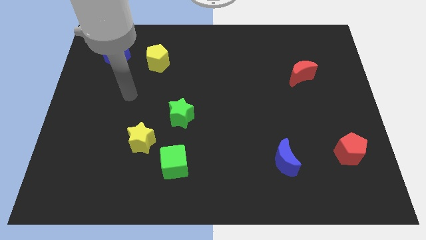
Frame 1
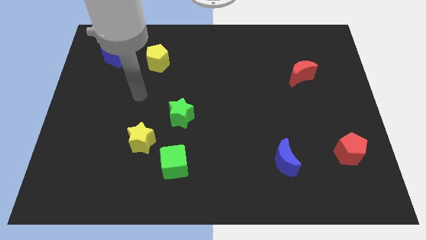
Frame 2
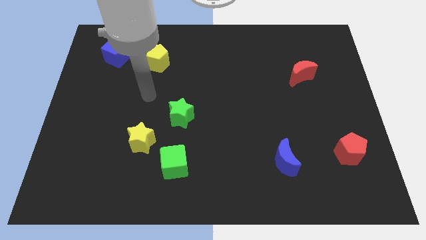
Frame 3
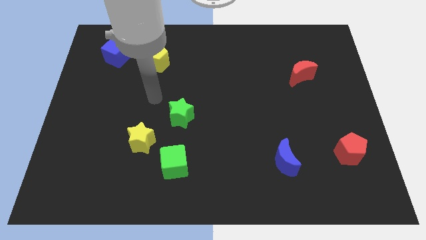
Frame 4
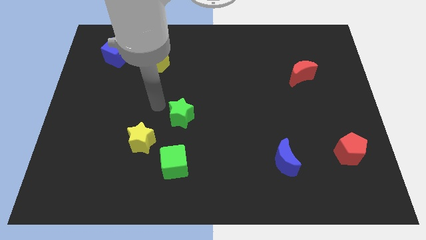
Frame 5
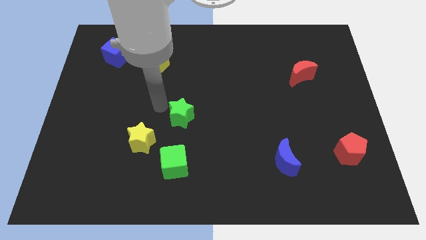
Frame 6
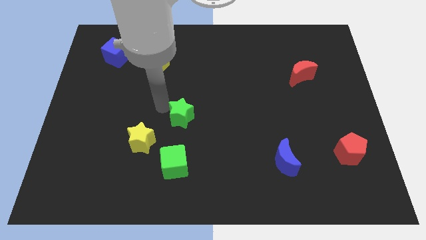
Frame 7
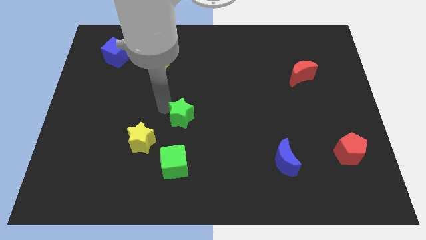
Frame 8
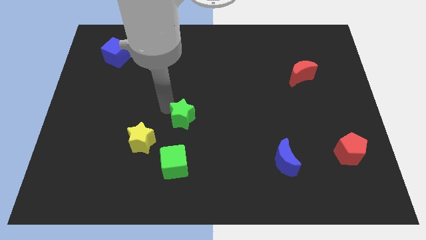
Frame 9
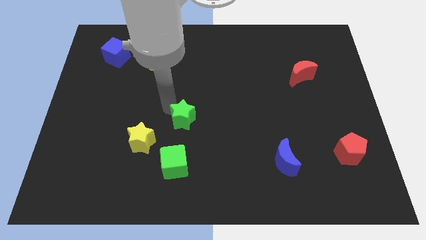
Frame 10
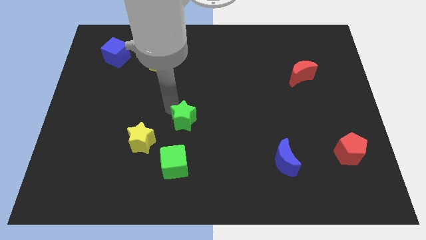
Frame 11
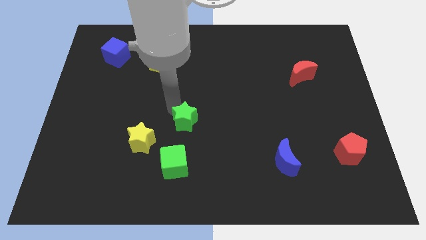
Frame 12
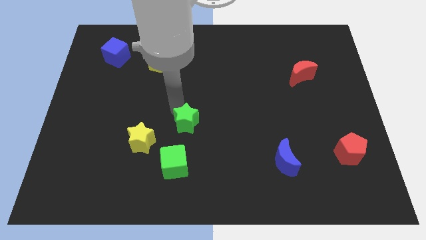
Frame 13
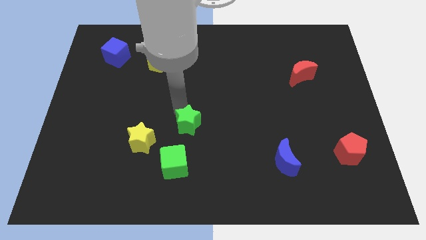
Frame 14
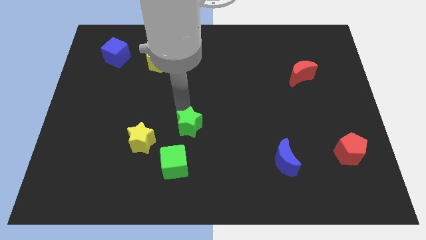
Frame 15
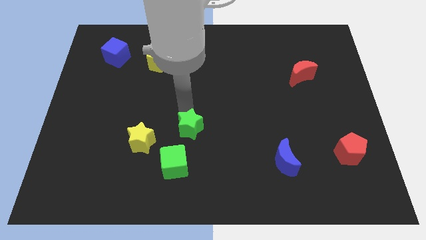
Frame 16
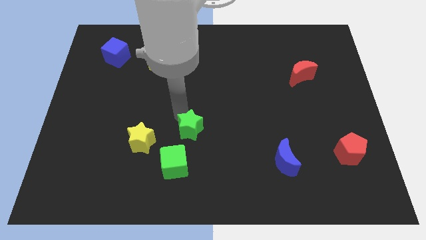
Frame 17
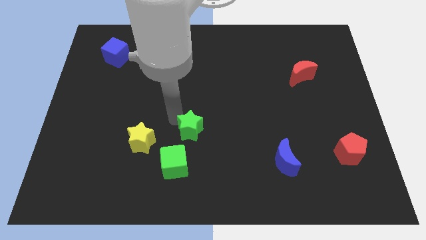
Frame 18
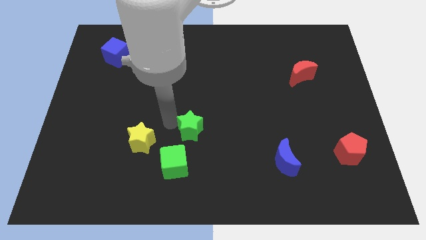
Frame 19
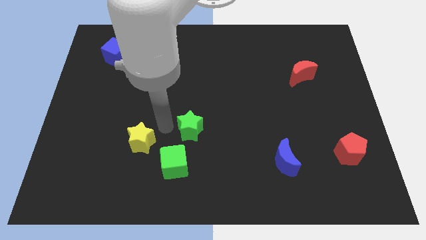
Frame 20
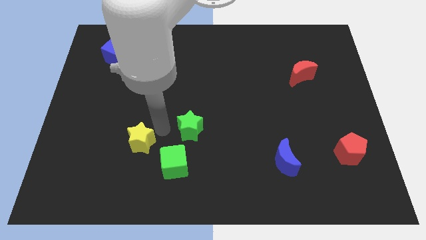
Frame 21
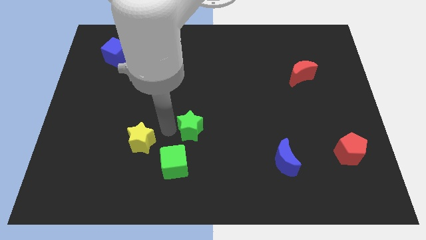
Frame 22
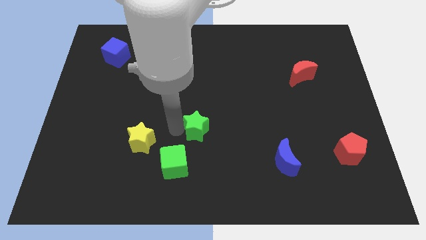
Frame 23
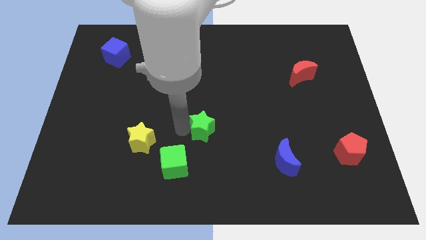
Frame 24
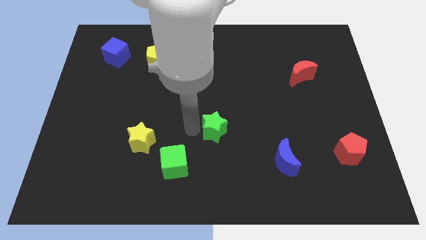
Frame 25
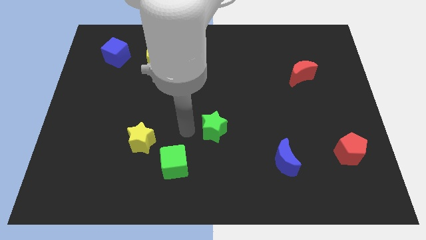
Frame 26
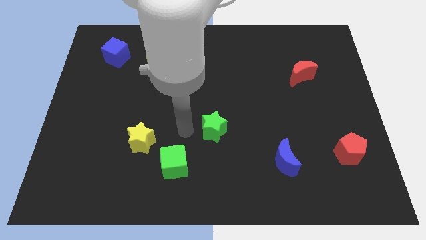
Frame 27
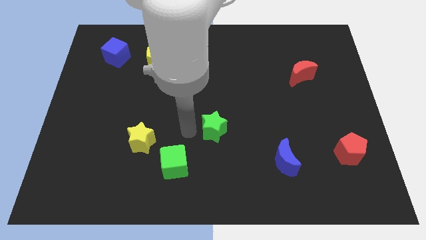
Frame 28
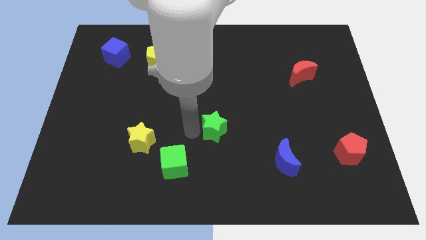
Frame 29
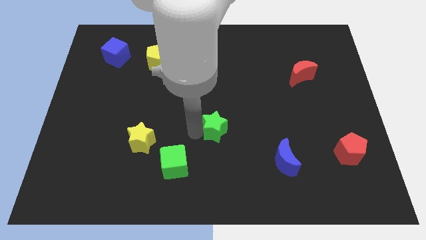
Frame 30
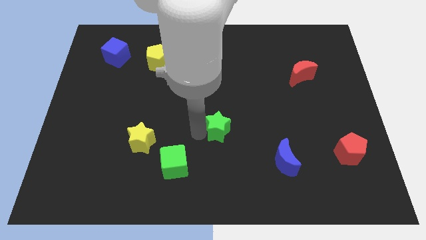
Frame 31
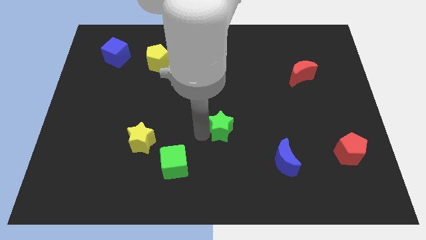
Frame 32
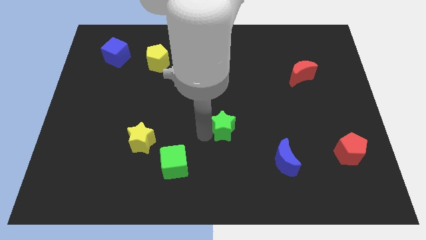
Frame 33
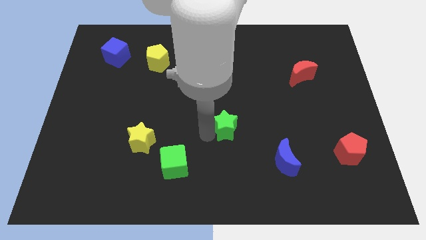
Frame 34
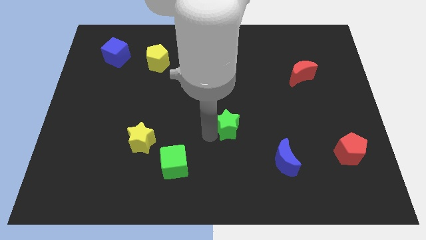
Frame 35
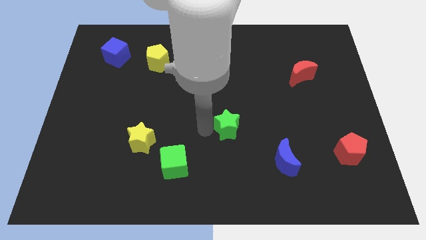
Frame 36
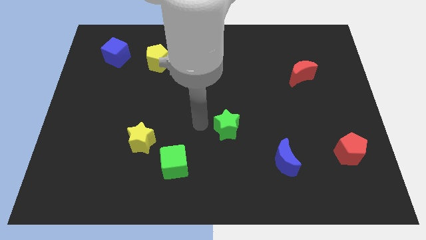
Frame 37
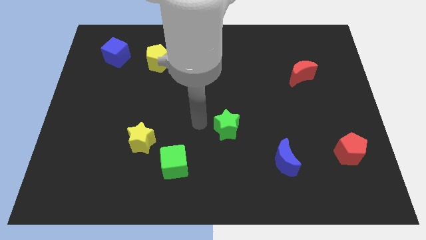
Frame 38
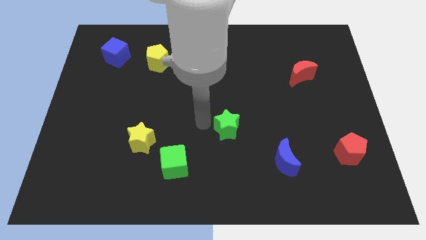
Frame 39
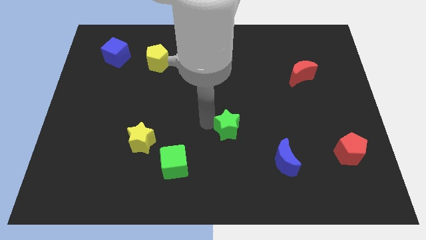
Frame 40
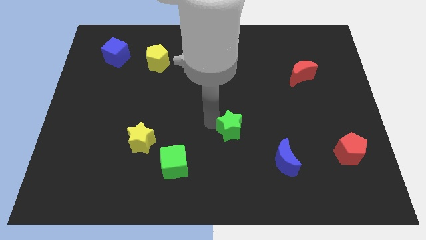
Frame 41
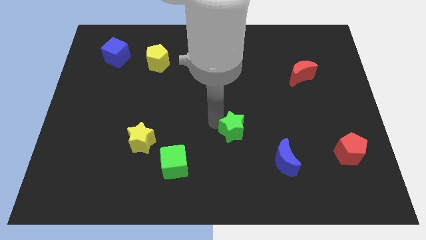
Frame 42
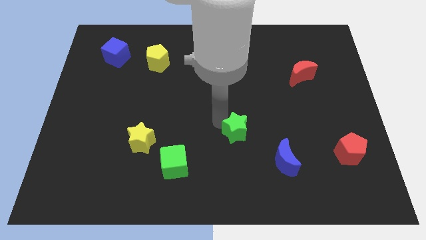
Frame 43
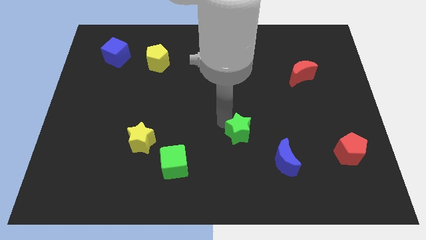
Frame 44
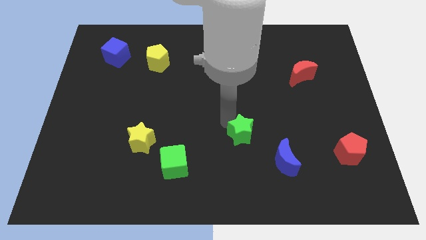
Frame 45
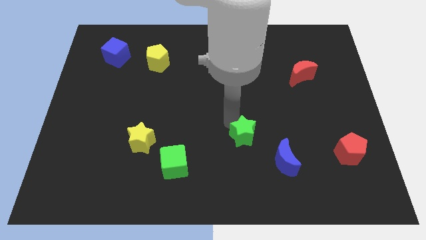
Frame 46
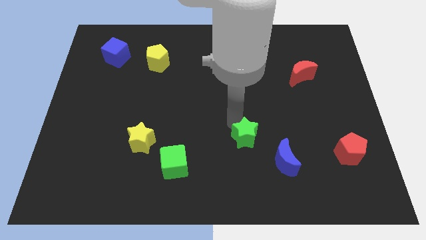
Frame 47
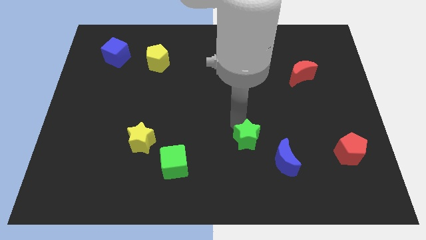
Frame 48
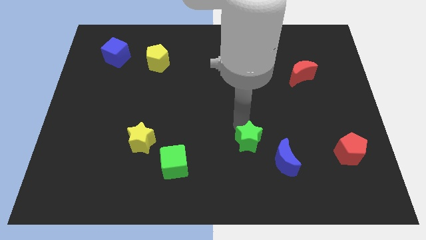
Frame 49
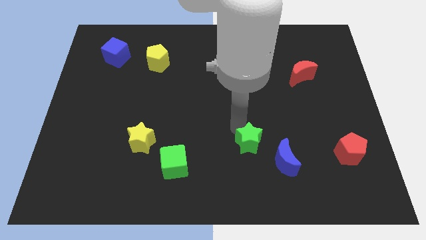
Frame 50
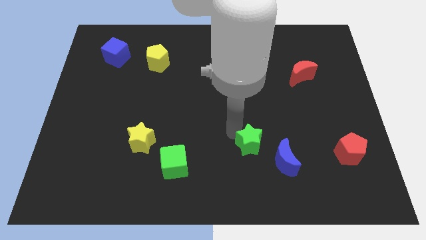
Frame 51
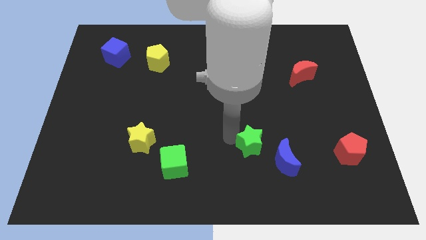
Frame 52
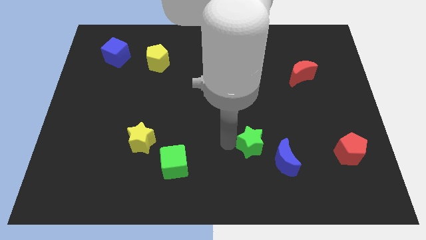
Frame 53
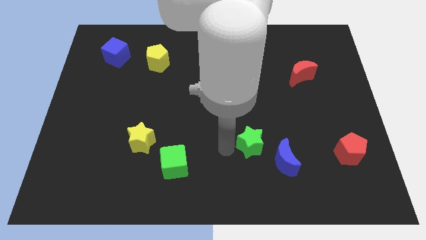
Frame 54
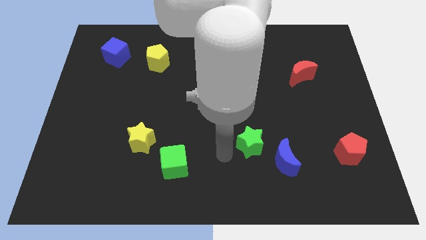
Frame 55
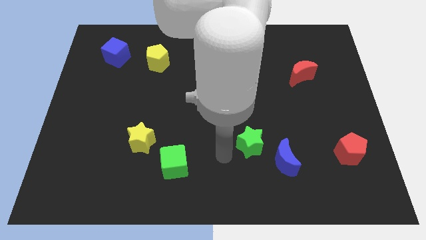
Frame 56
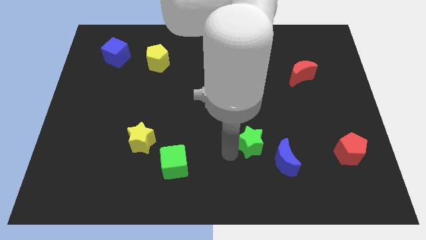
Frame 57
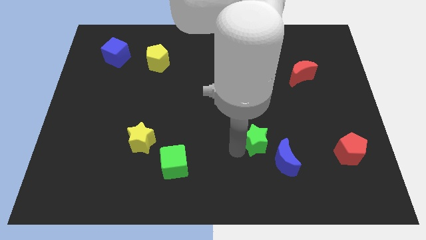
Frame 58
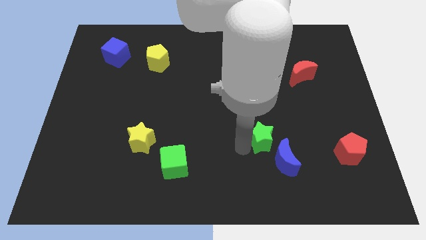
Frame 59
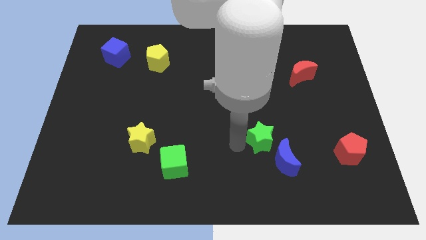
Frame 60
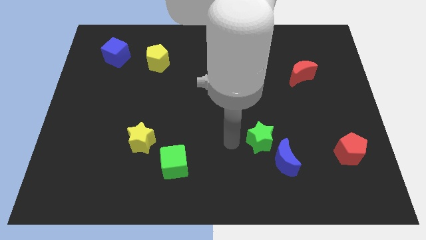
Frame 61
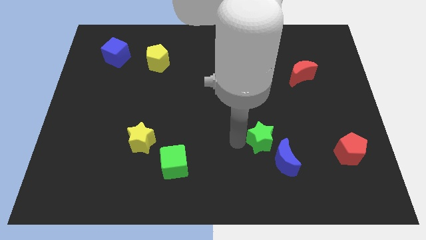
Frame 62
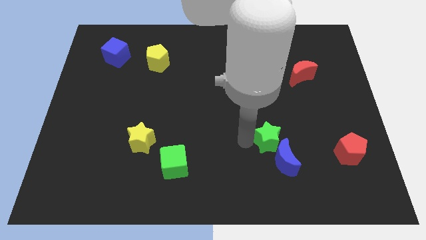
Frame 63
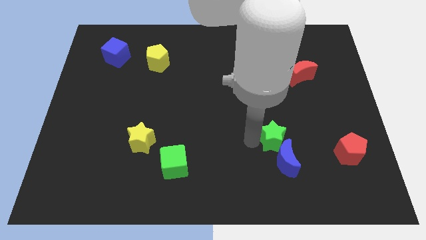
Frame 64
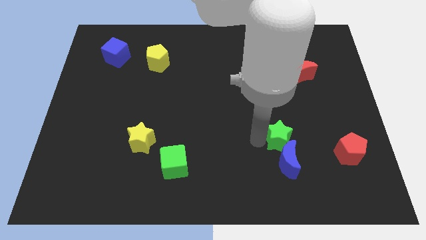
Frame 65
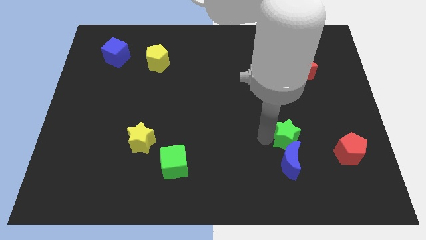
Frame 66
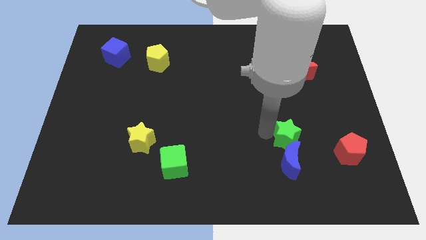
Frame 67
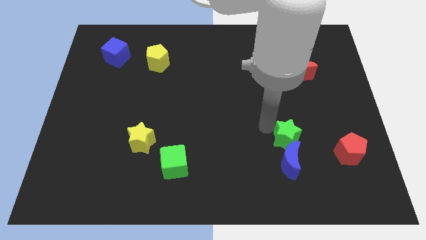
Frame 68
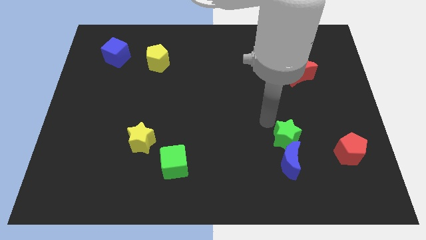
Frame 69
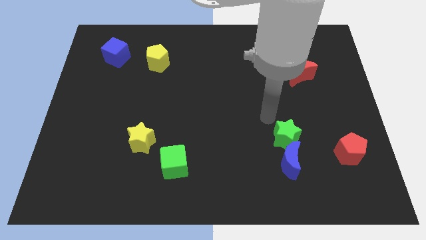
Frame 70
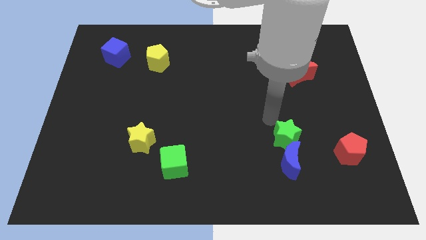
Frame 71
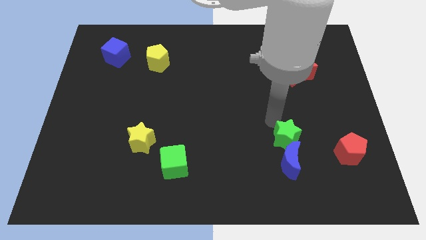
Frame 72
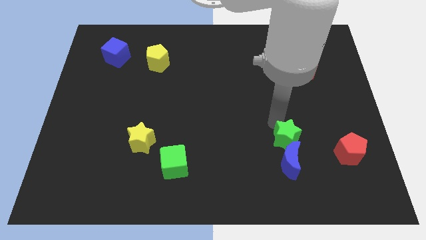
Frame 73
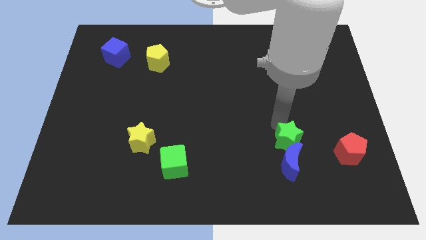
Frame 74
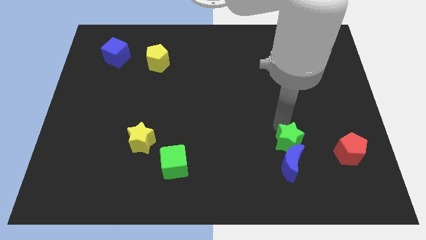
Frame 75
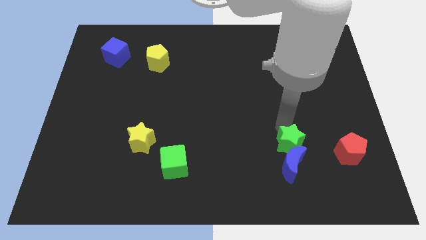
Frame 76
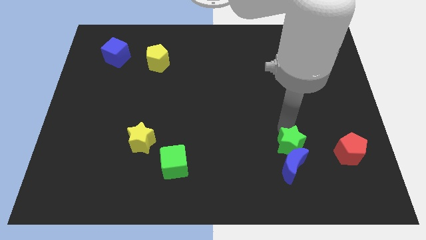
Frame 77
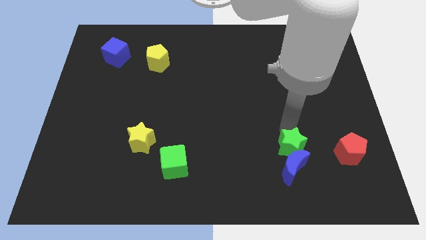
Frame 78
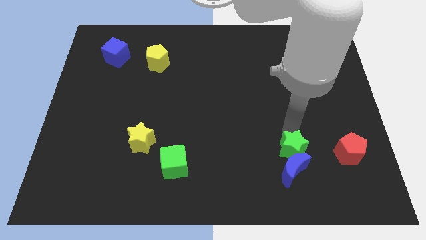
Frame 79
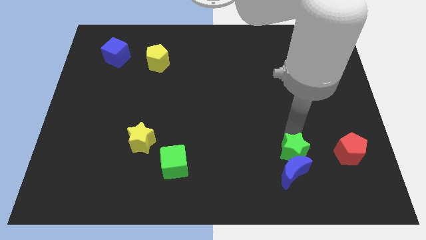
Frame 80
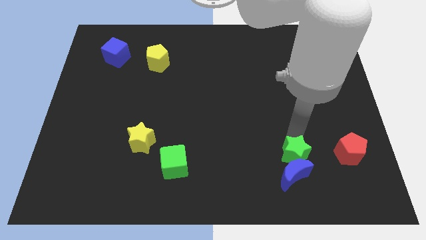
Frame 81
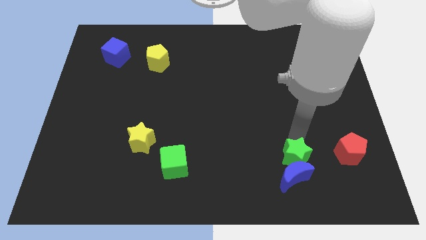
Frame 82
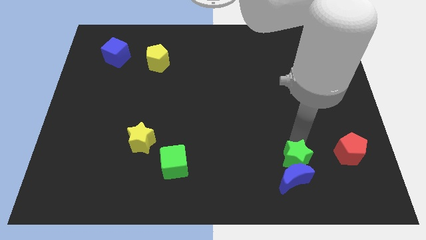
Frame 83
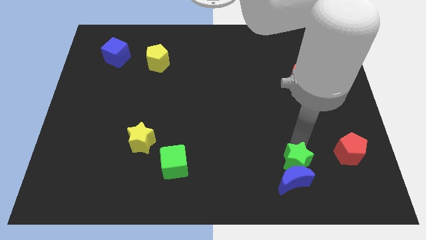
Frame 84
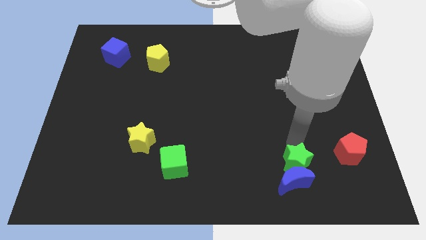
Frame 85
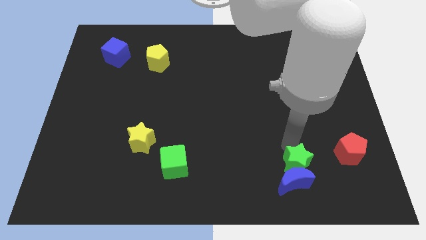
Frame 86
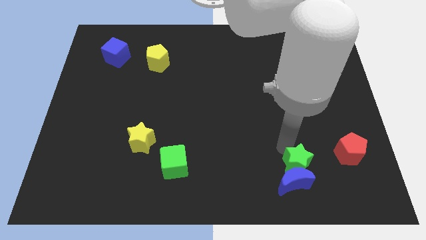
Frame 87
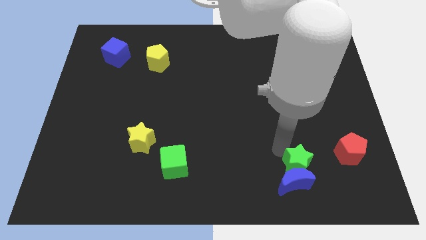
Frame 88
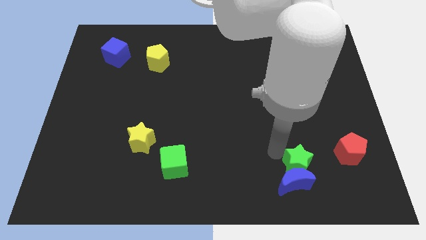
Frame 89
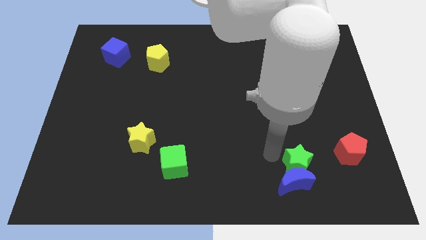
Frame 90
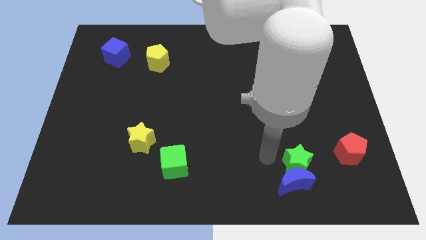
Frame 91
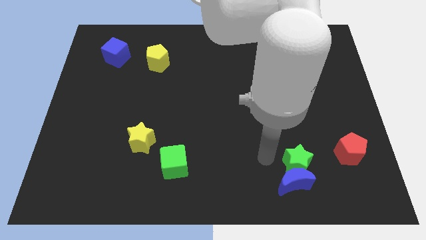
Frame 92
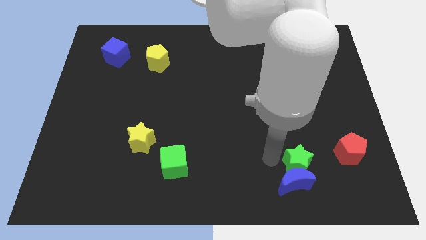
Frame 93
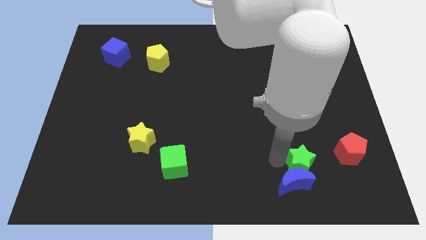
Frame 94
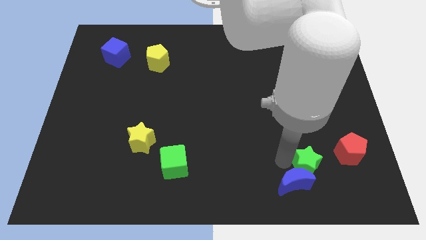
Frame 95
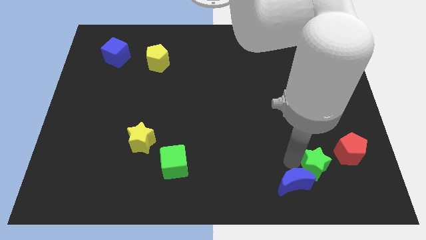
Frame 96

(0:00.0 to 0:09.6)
push the green star to the bottom left side of the red pentagon
